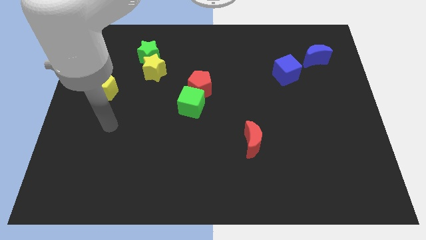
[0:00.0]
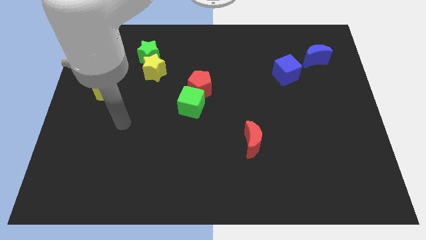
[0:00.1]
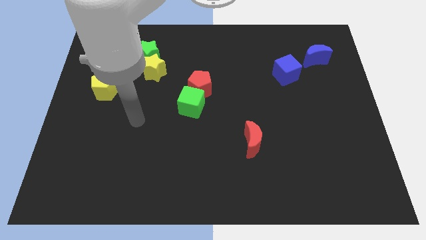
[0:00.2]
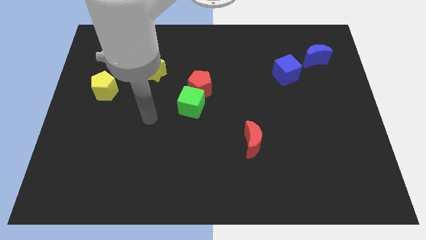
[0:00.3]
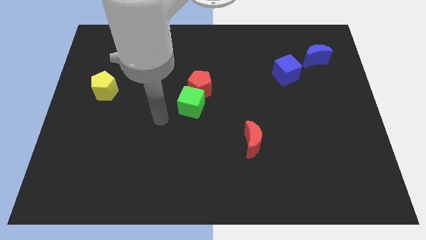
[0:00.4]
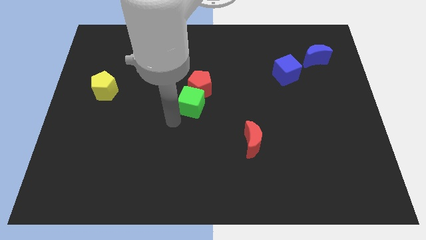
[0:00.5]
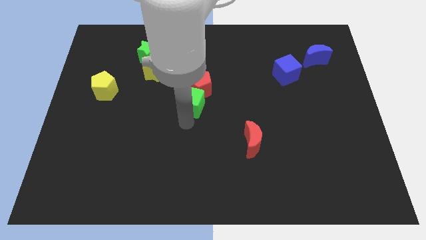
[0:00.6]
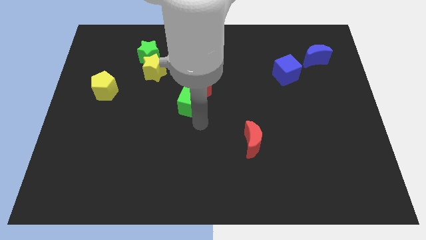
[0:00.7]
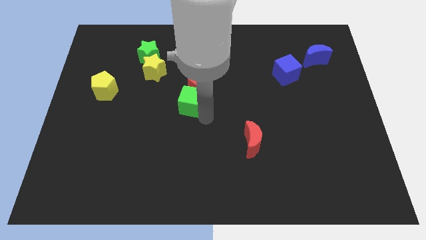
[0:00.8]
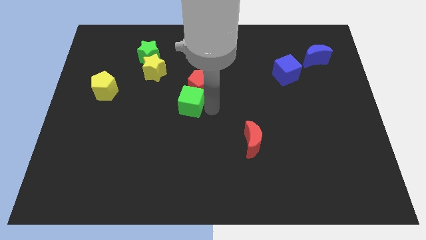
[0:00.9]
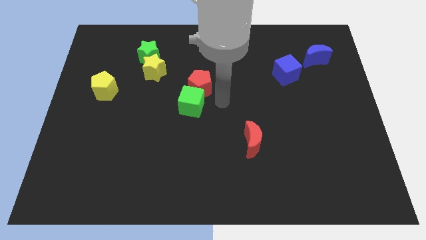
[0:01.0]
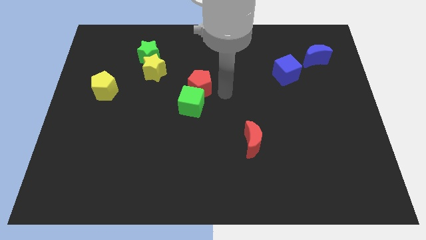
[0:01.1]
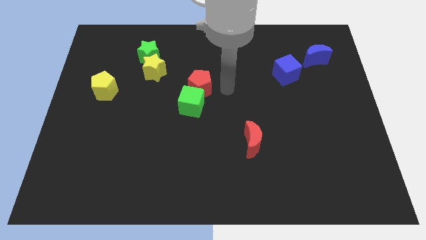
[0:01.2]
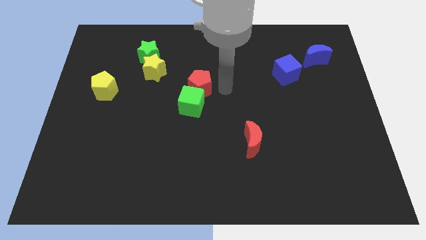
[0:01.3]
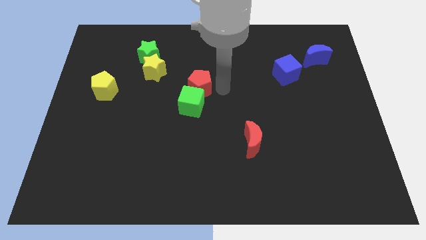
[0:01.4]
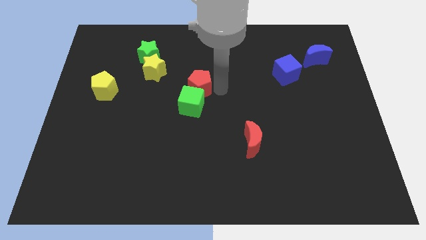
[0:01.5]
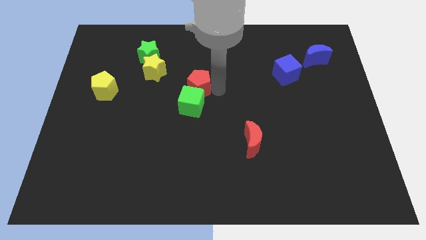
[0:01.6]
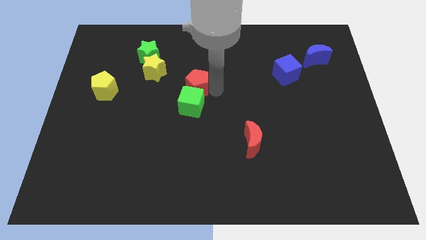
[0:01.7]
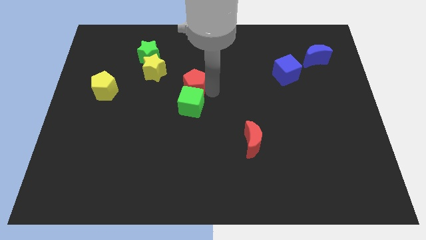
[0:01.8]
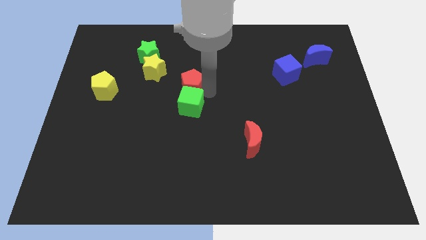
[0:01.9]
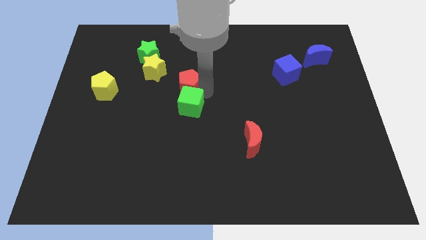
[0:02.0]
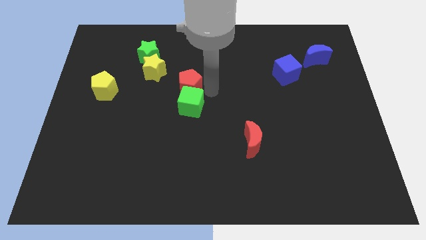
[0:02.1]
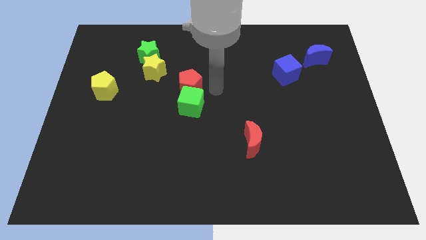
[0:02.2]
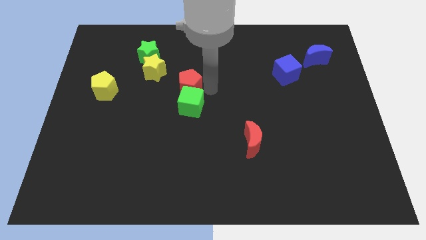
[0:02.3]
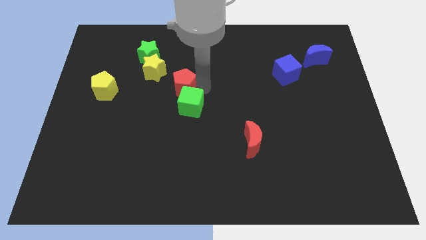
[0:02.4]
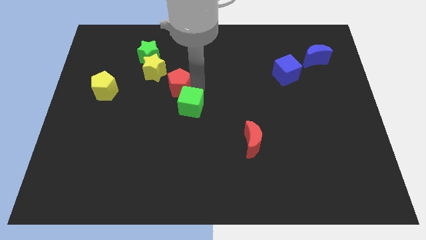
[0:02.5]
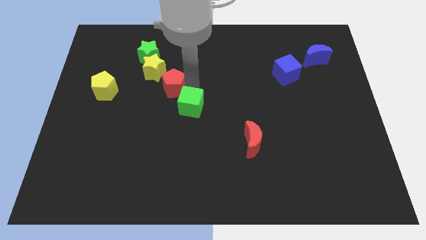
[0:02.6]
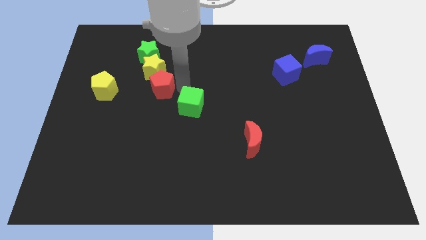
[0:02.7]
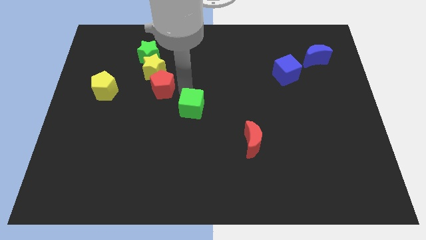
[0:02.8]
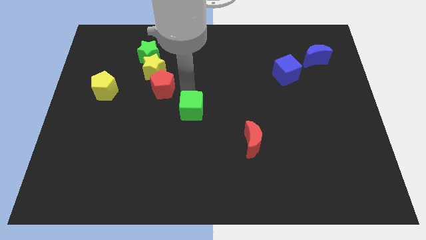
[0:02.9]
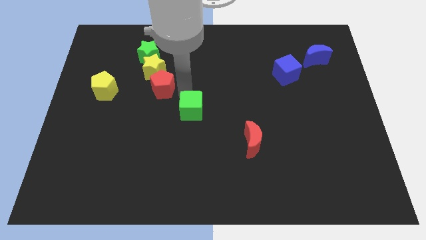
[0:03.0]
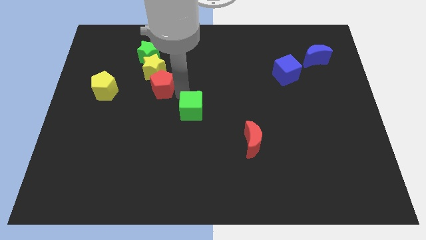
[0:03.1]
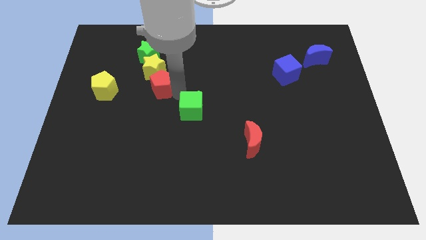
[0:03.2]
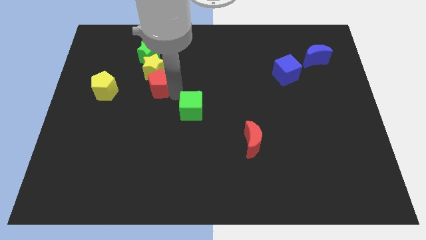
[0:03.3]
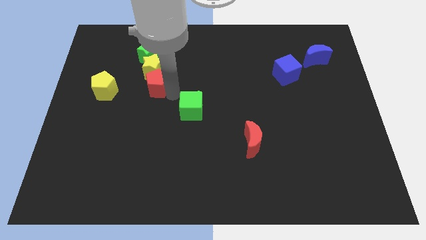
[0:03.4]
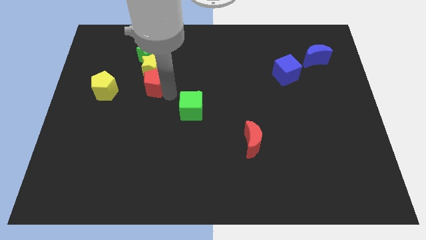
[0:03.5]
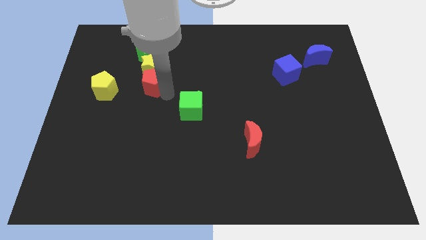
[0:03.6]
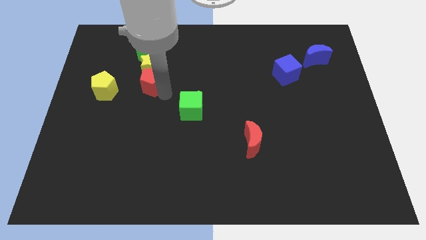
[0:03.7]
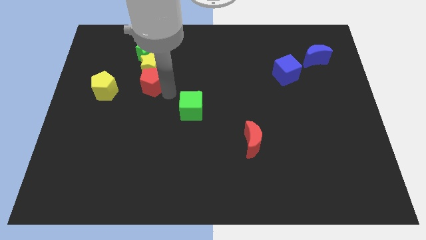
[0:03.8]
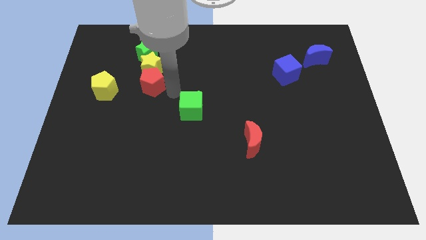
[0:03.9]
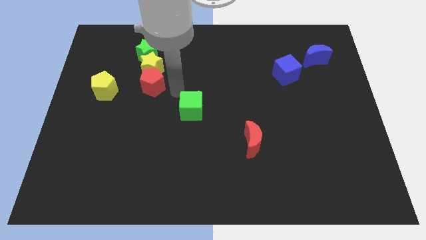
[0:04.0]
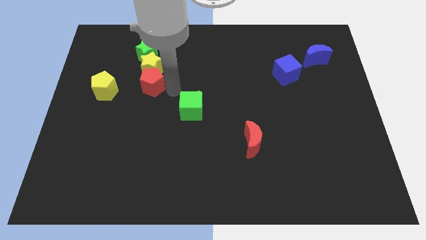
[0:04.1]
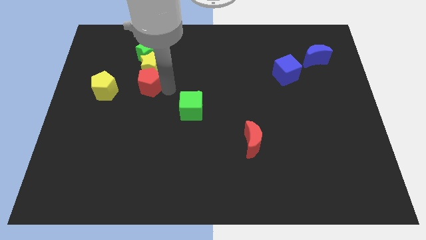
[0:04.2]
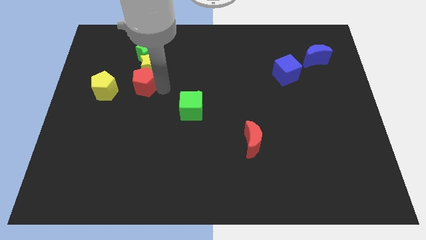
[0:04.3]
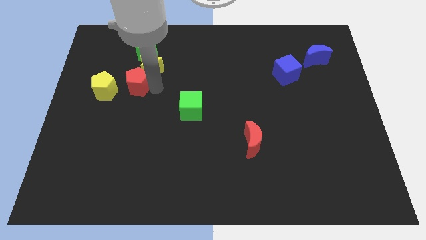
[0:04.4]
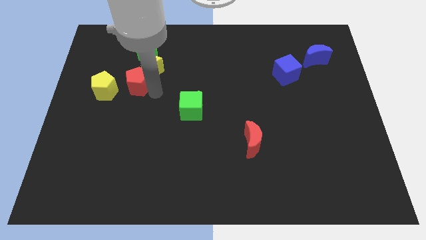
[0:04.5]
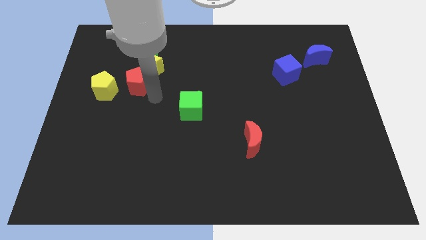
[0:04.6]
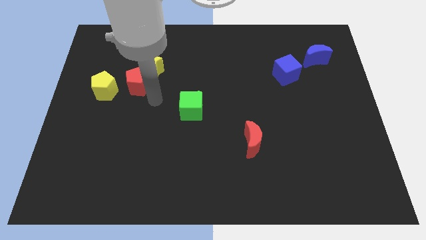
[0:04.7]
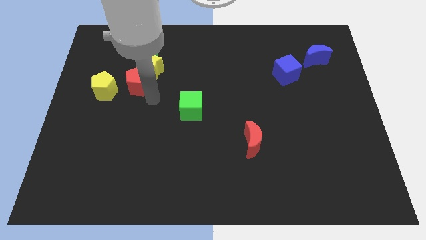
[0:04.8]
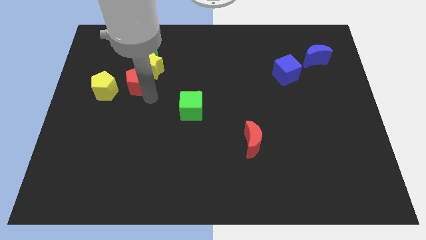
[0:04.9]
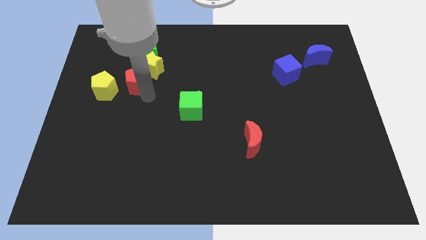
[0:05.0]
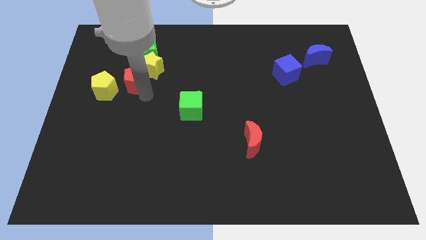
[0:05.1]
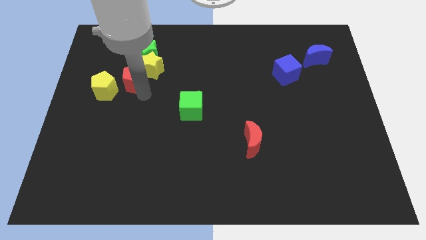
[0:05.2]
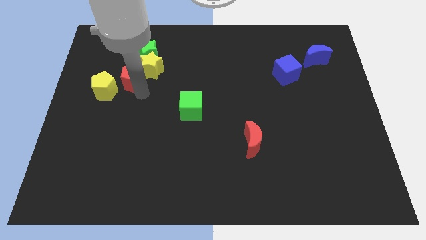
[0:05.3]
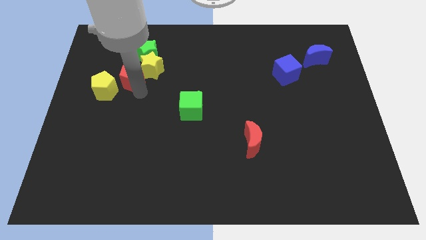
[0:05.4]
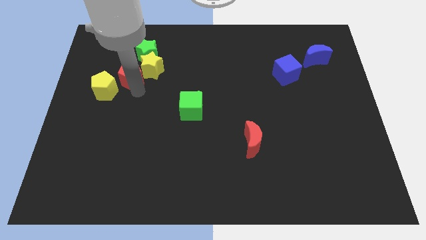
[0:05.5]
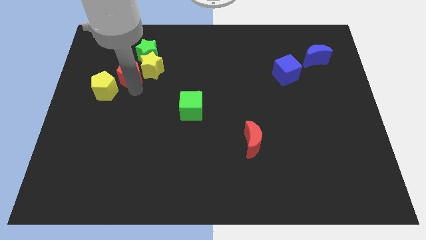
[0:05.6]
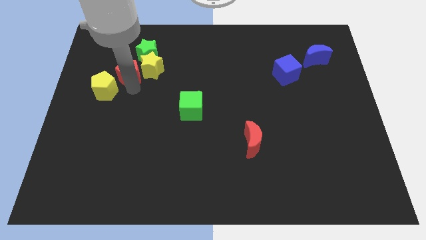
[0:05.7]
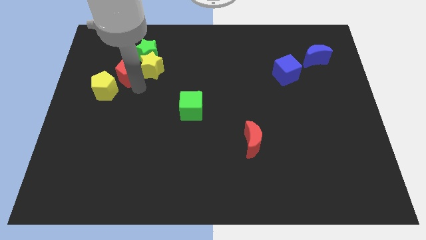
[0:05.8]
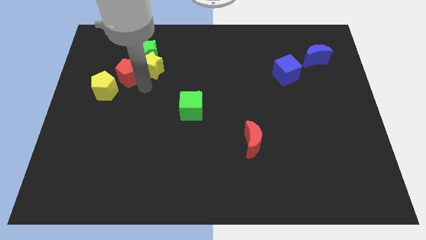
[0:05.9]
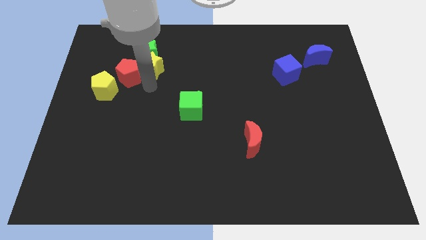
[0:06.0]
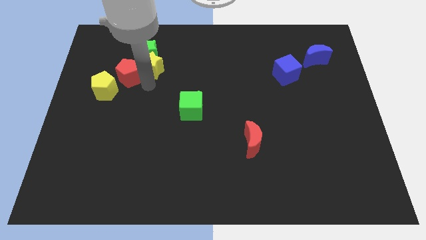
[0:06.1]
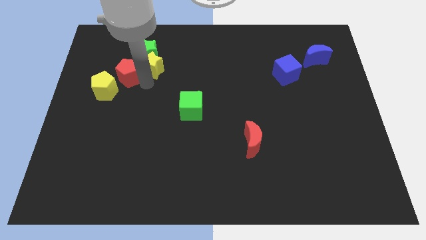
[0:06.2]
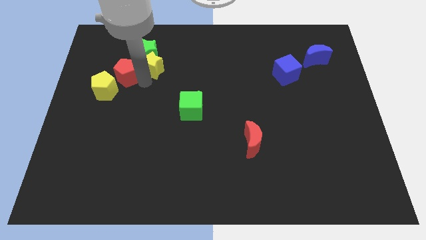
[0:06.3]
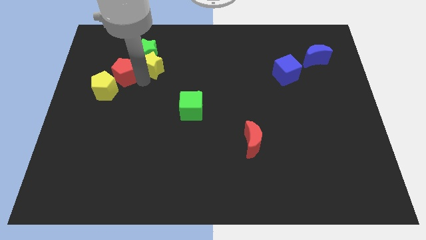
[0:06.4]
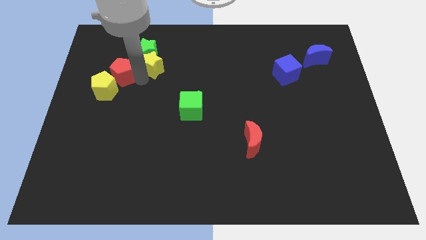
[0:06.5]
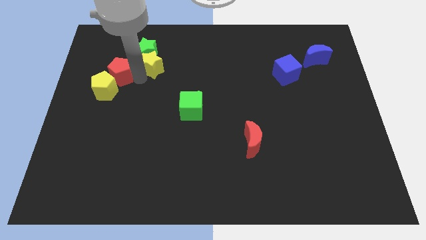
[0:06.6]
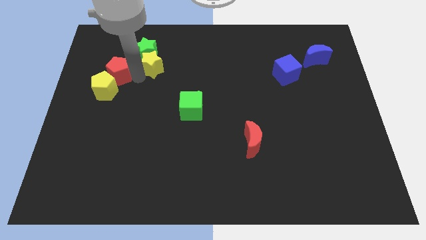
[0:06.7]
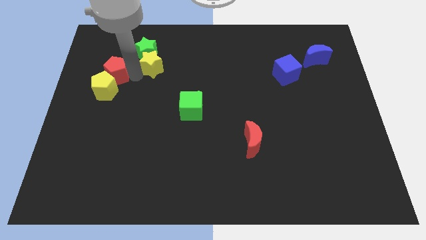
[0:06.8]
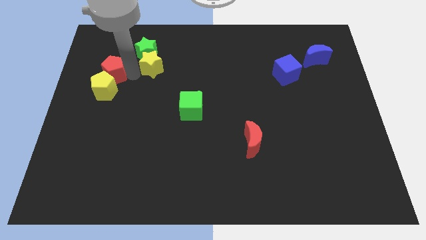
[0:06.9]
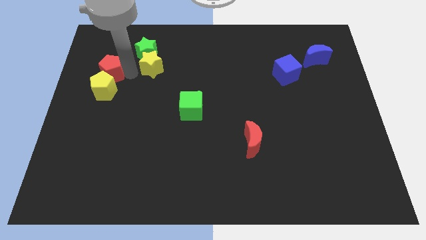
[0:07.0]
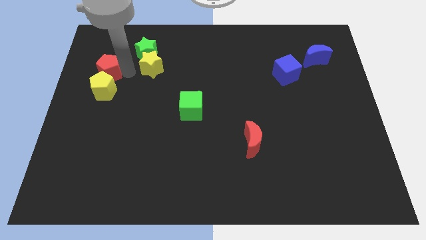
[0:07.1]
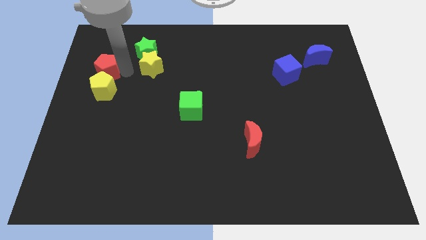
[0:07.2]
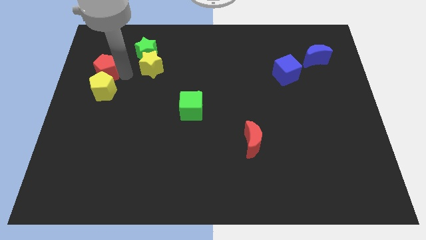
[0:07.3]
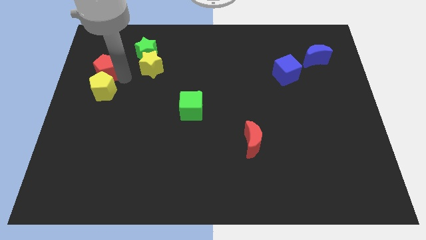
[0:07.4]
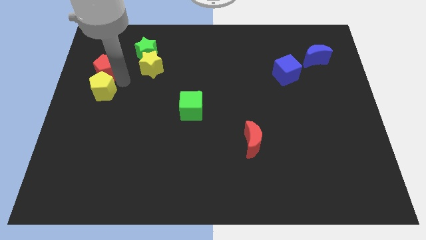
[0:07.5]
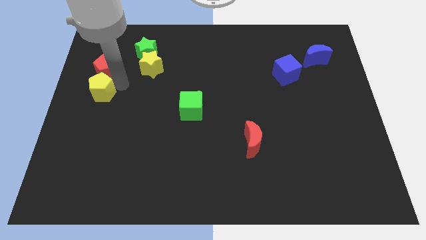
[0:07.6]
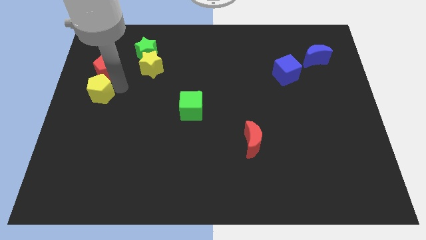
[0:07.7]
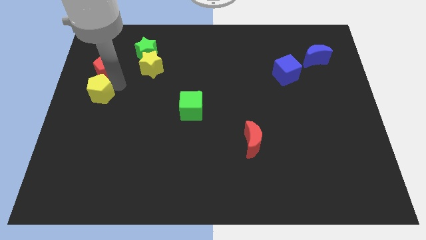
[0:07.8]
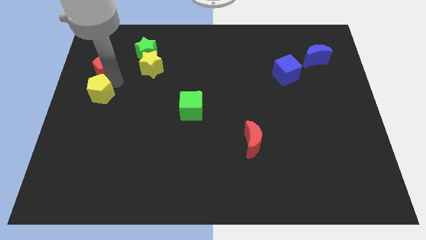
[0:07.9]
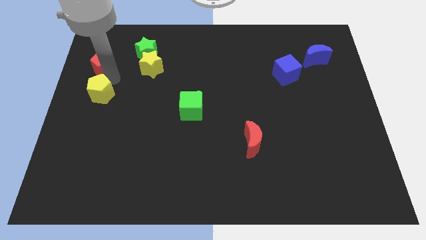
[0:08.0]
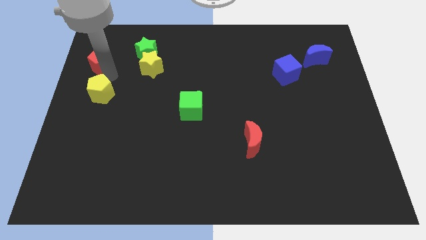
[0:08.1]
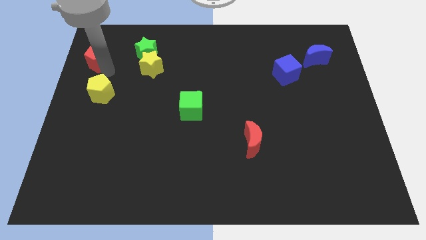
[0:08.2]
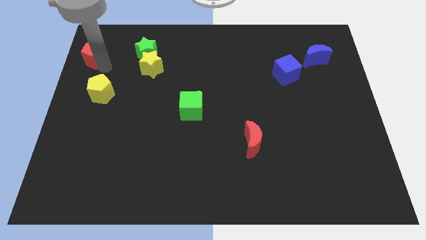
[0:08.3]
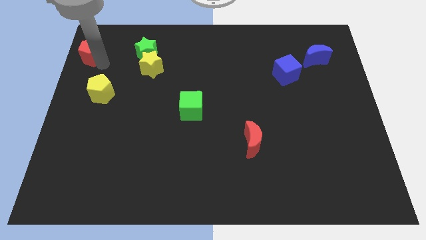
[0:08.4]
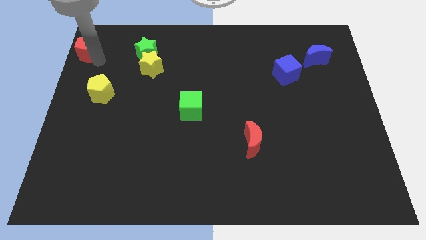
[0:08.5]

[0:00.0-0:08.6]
move the red pentagon to the top left
